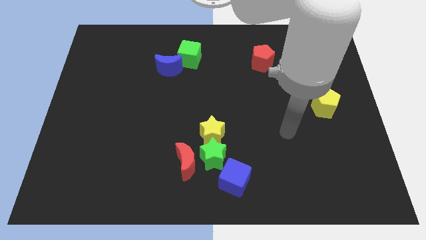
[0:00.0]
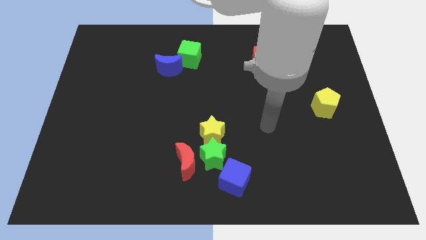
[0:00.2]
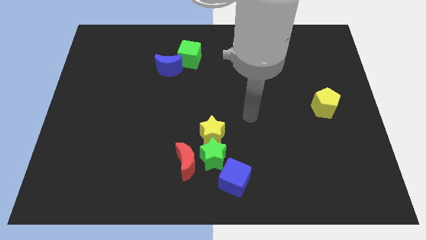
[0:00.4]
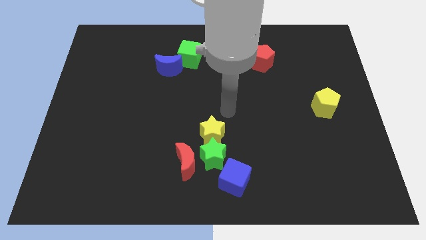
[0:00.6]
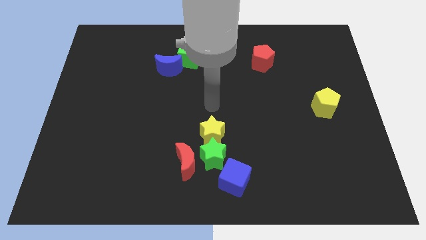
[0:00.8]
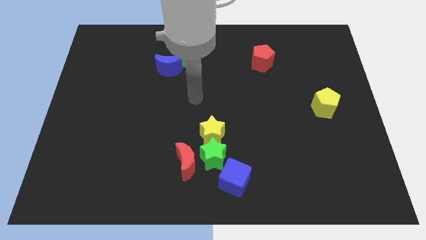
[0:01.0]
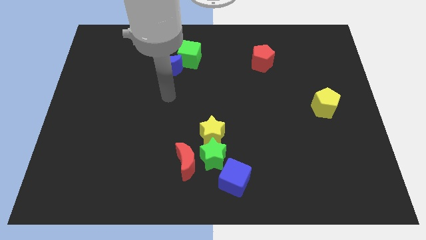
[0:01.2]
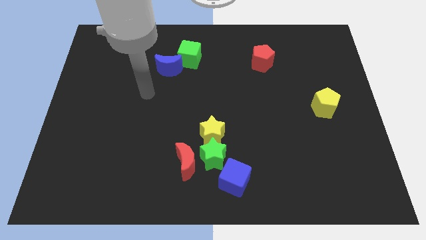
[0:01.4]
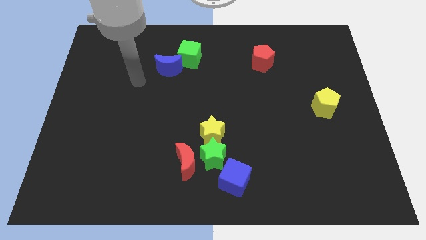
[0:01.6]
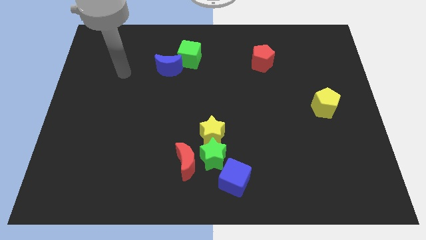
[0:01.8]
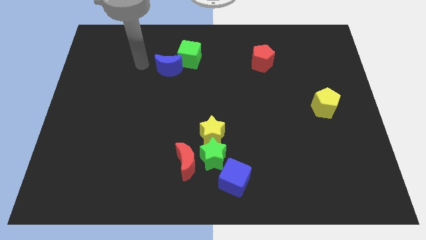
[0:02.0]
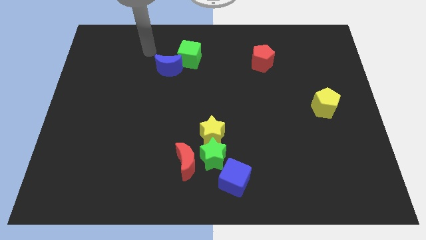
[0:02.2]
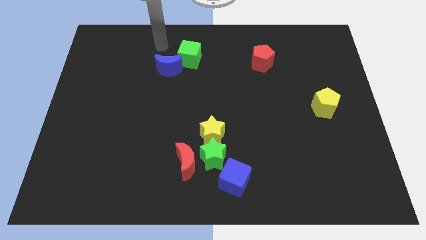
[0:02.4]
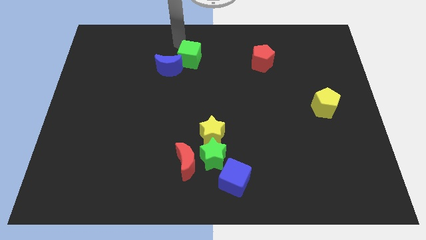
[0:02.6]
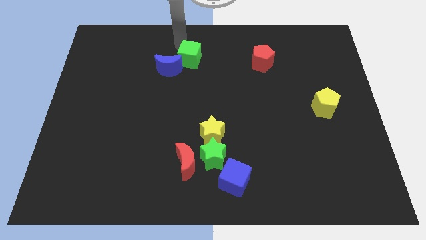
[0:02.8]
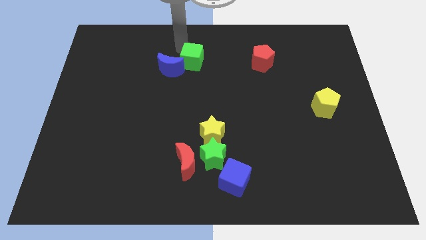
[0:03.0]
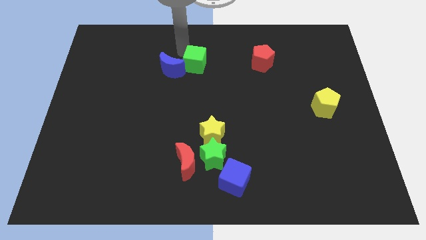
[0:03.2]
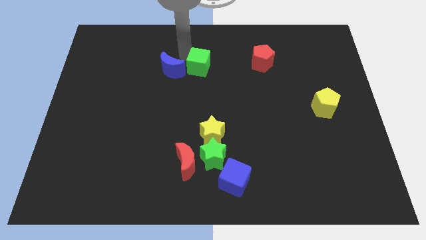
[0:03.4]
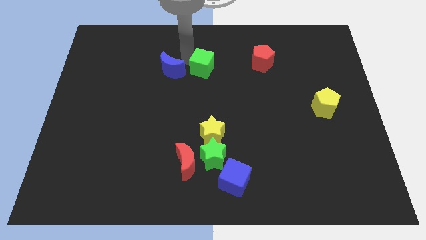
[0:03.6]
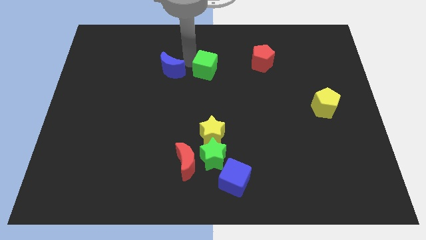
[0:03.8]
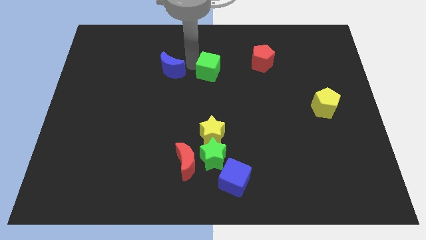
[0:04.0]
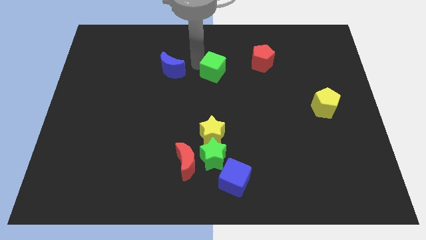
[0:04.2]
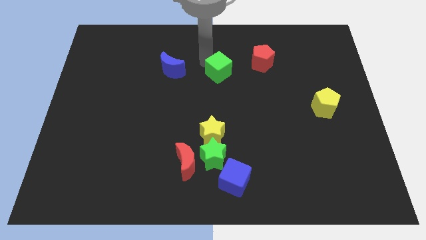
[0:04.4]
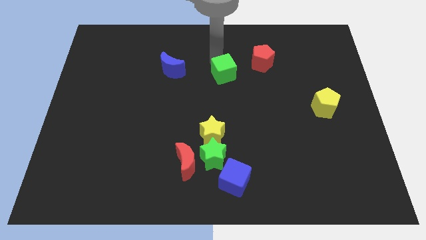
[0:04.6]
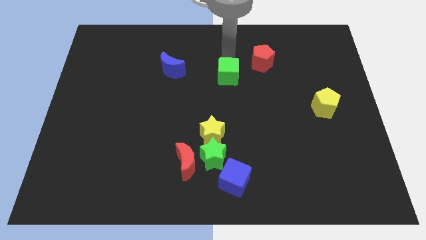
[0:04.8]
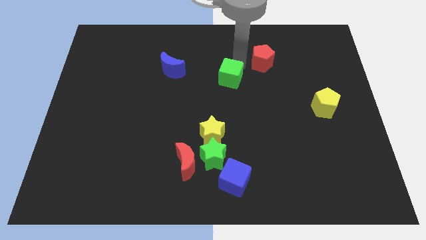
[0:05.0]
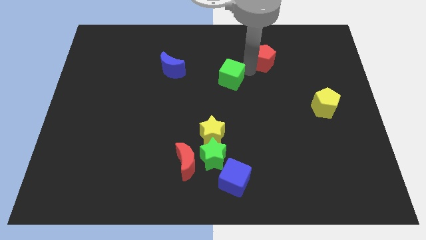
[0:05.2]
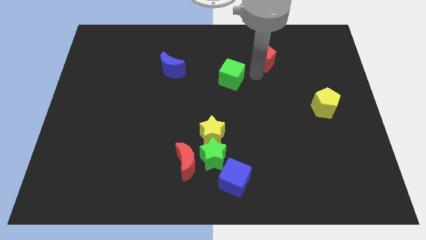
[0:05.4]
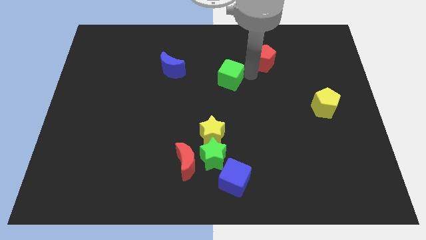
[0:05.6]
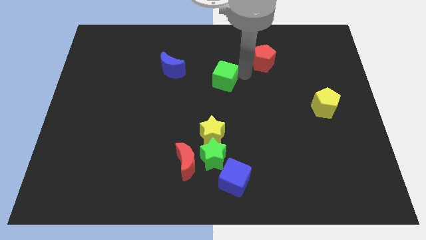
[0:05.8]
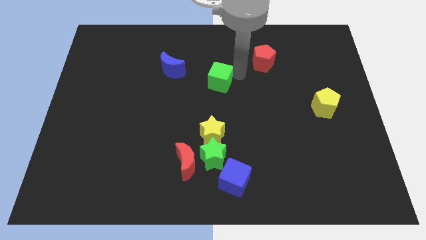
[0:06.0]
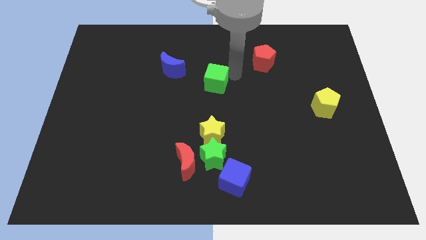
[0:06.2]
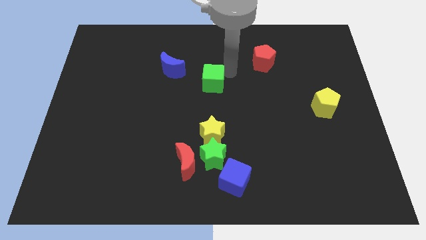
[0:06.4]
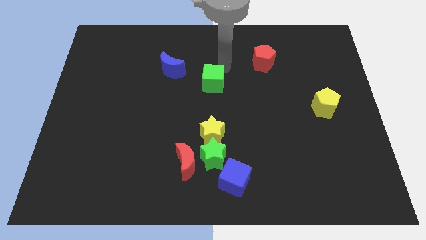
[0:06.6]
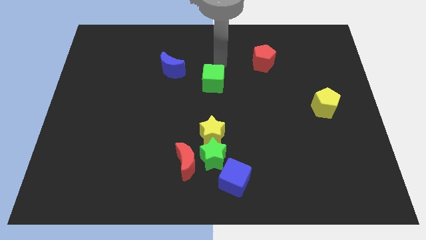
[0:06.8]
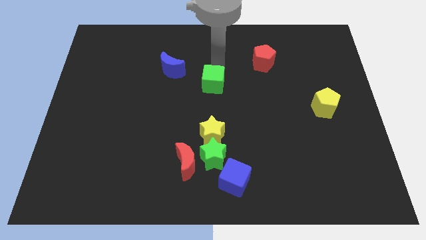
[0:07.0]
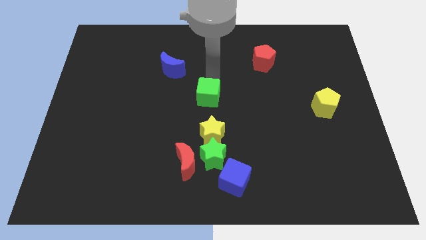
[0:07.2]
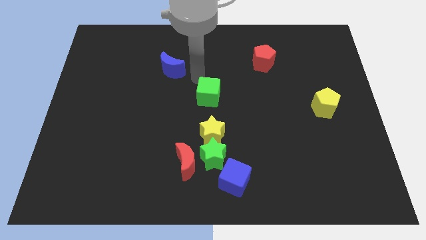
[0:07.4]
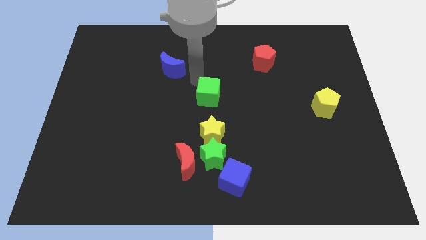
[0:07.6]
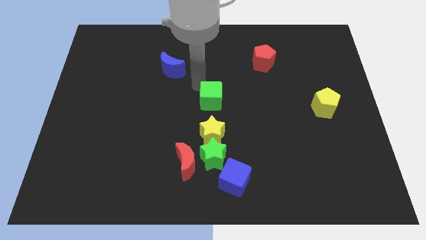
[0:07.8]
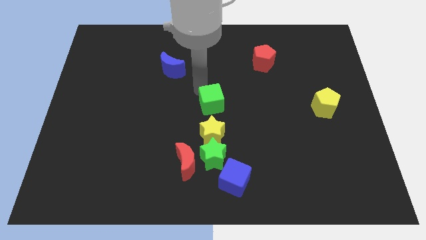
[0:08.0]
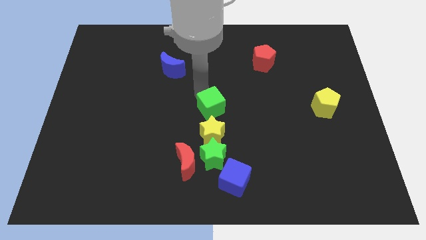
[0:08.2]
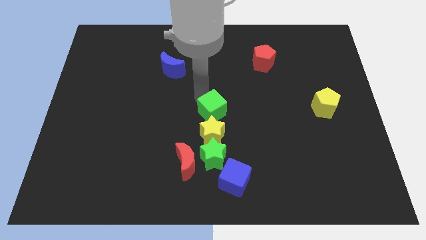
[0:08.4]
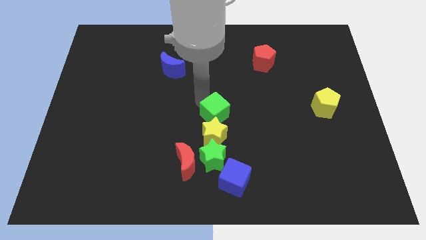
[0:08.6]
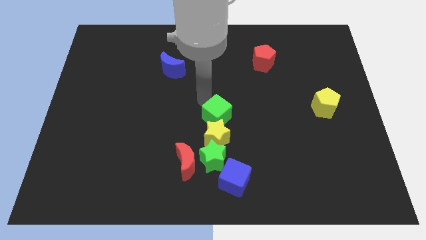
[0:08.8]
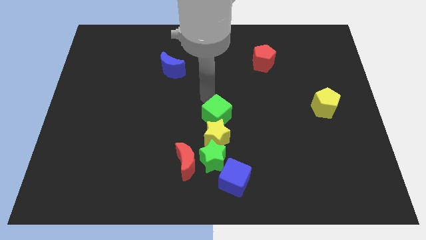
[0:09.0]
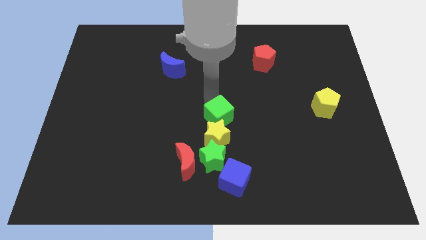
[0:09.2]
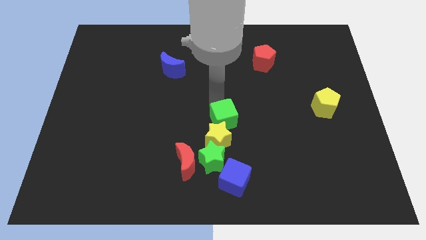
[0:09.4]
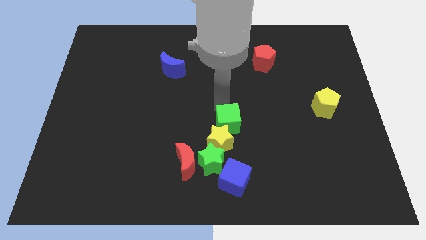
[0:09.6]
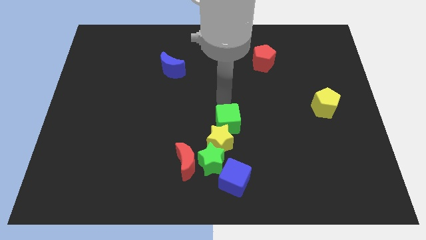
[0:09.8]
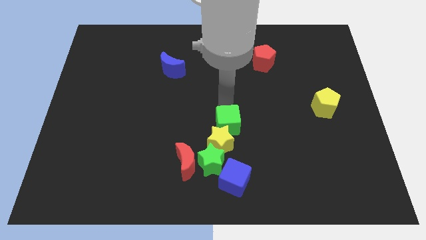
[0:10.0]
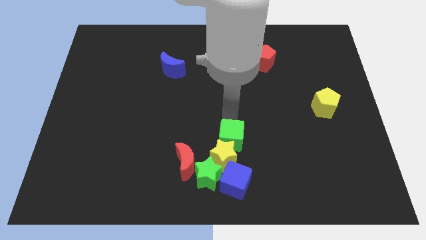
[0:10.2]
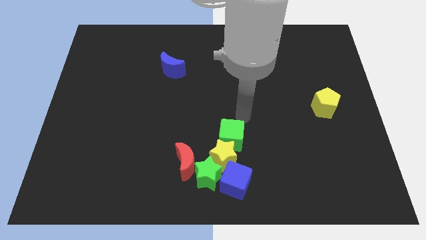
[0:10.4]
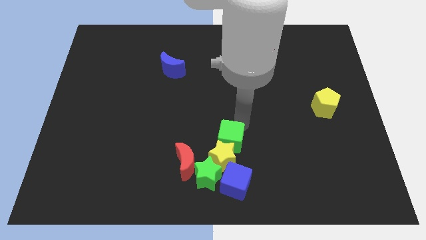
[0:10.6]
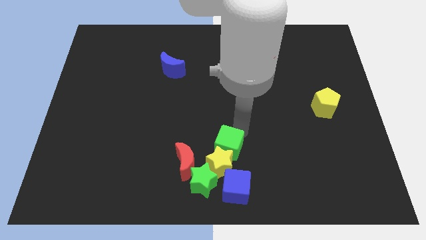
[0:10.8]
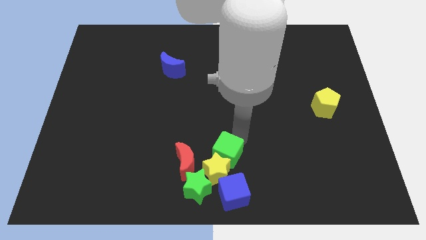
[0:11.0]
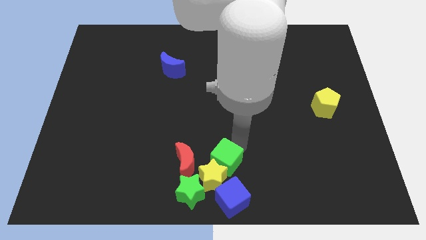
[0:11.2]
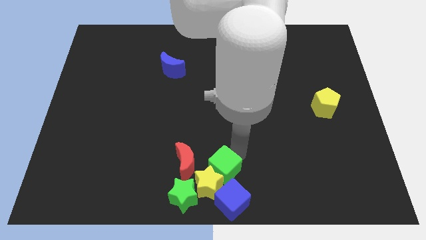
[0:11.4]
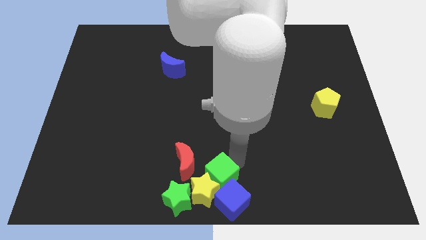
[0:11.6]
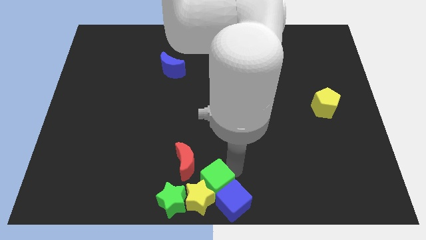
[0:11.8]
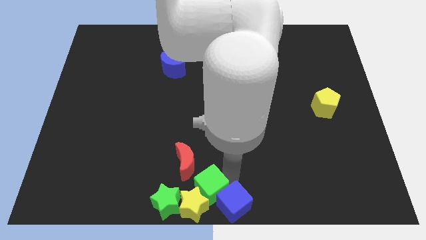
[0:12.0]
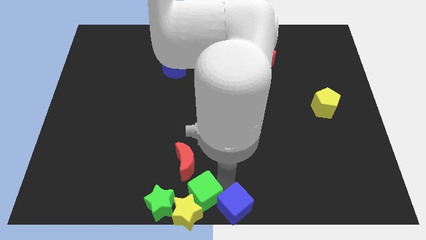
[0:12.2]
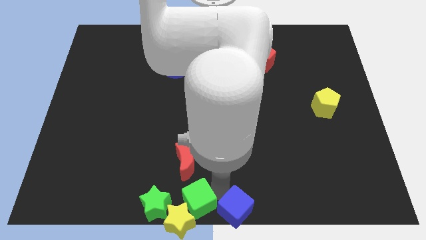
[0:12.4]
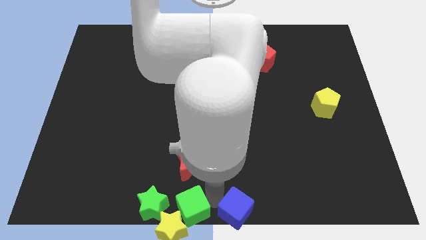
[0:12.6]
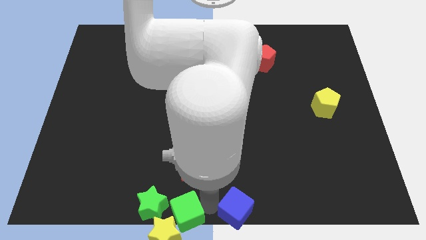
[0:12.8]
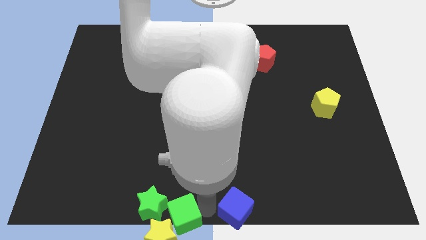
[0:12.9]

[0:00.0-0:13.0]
slide the green cube to the green star

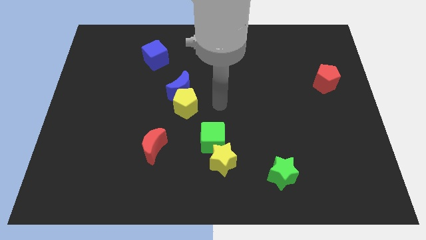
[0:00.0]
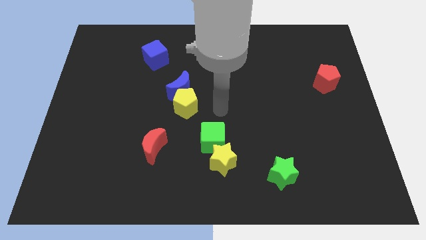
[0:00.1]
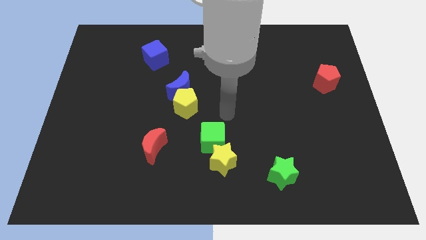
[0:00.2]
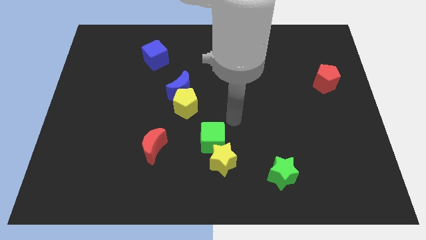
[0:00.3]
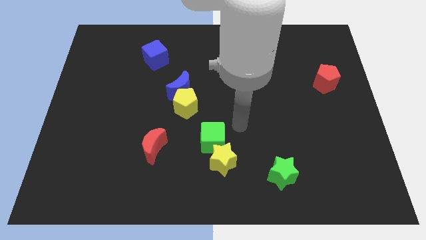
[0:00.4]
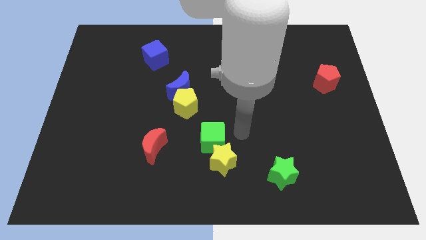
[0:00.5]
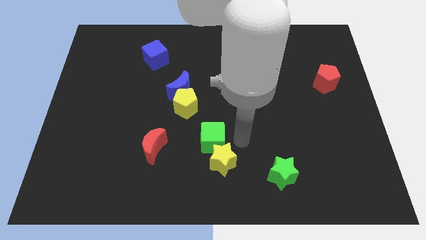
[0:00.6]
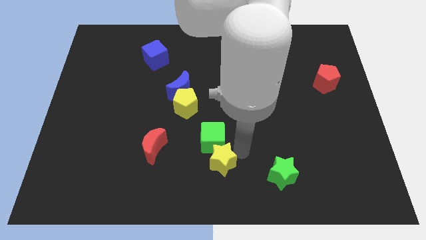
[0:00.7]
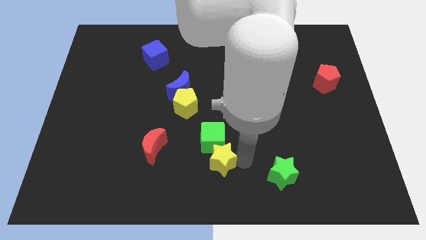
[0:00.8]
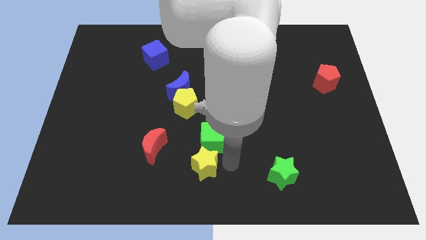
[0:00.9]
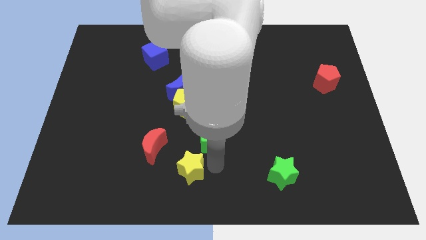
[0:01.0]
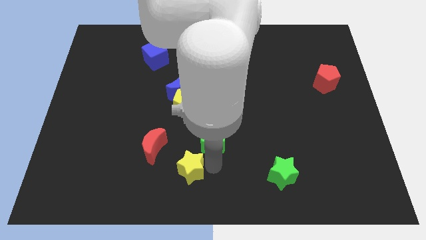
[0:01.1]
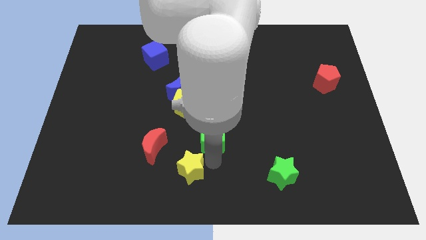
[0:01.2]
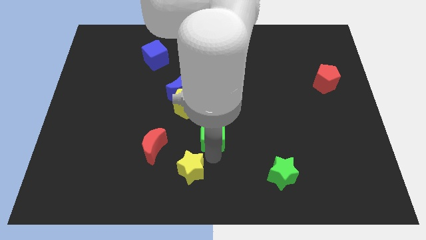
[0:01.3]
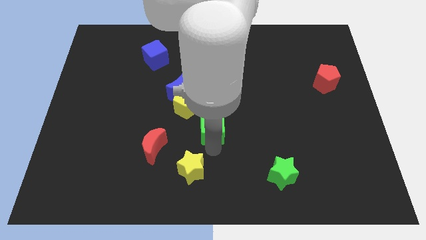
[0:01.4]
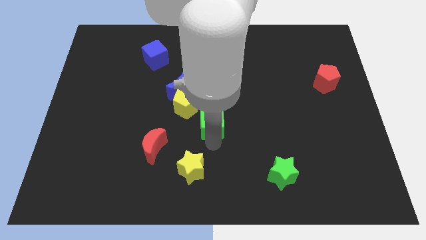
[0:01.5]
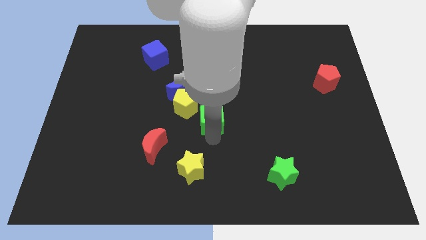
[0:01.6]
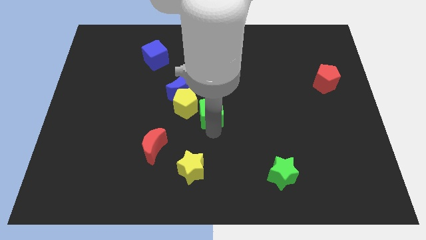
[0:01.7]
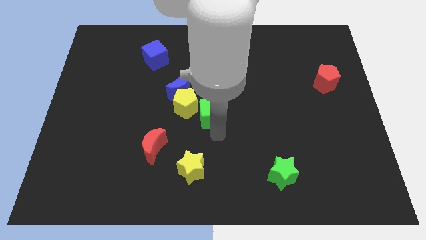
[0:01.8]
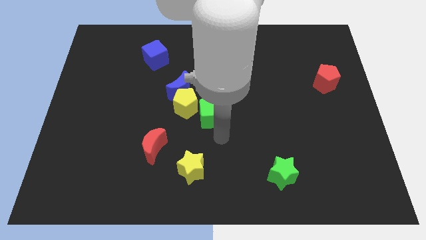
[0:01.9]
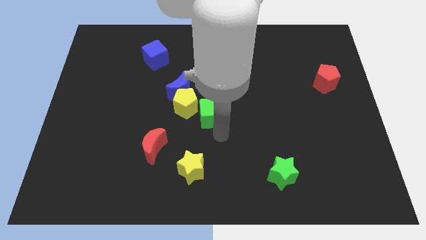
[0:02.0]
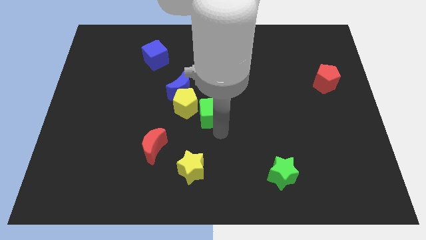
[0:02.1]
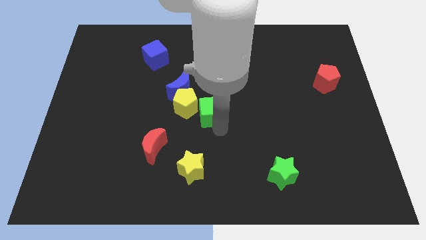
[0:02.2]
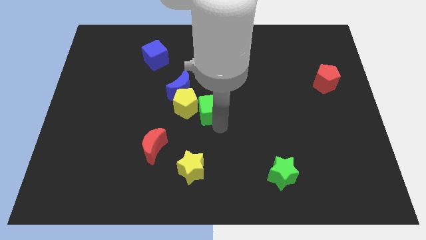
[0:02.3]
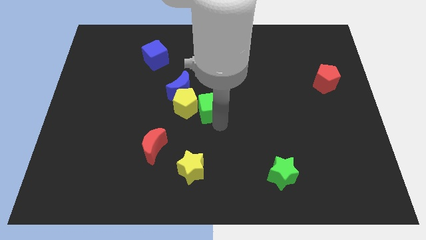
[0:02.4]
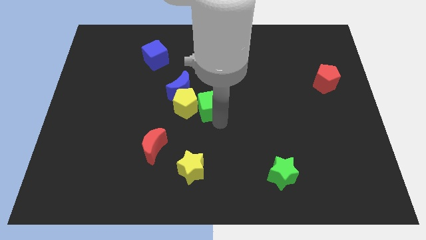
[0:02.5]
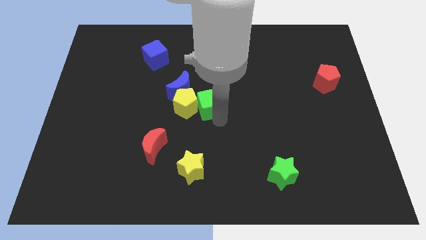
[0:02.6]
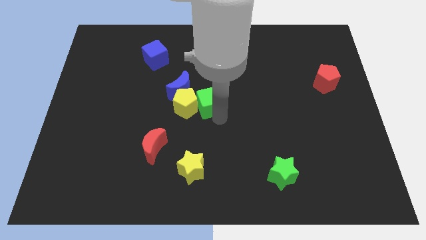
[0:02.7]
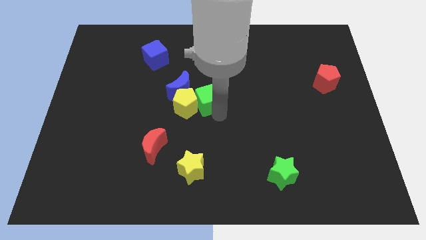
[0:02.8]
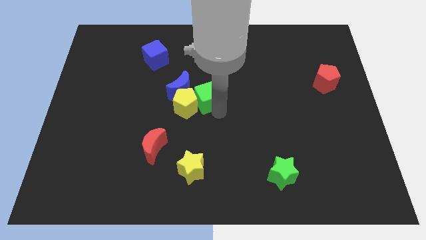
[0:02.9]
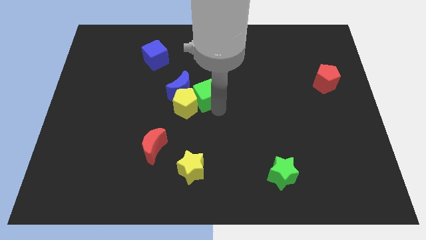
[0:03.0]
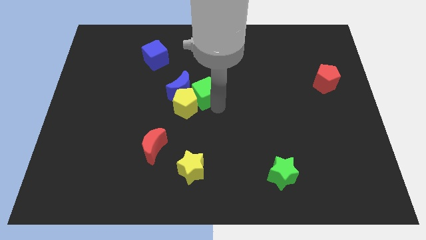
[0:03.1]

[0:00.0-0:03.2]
push the green cube next to the blue moon
